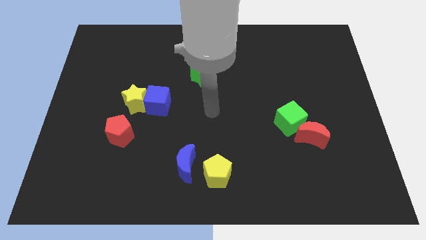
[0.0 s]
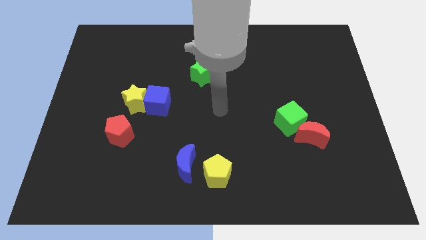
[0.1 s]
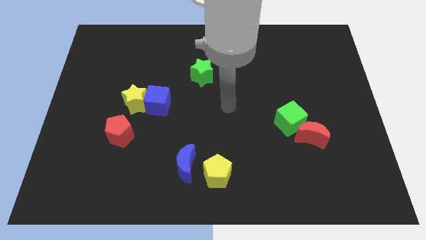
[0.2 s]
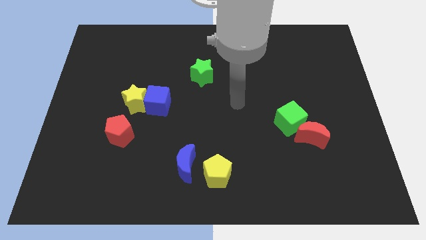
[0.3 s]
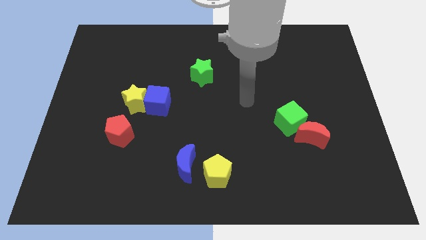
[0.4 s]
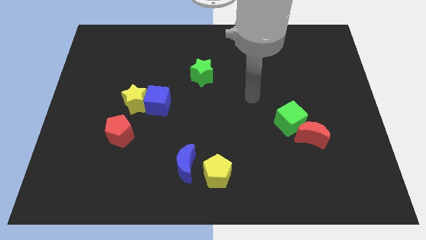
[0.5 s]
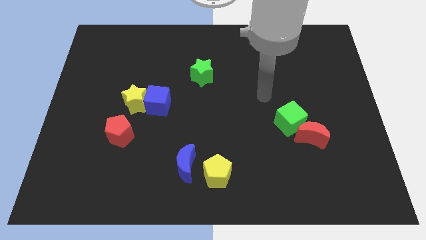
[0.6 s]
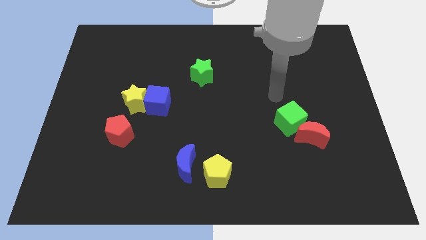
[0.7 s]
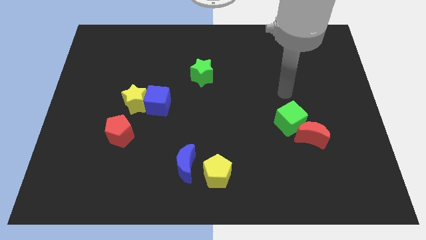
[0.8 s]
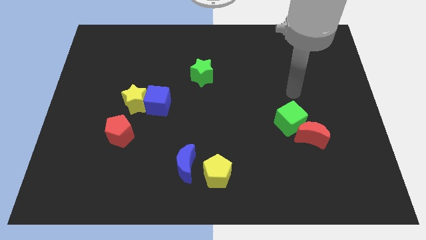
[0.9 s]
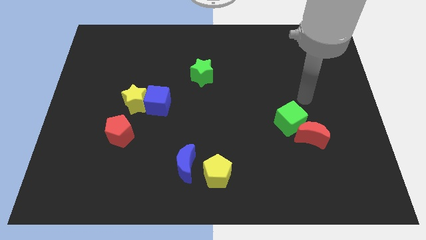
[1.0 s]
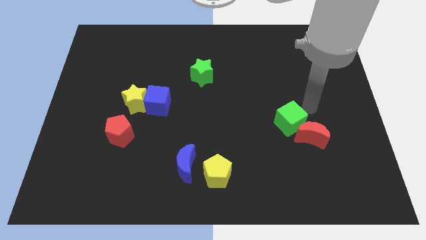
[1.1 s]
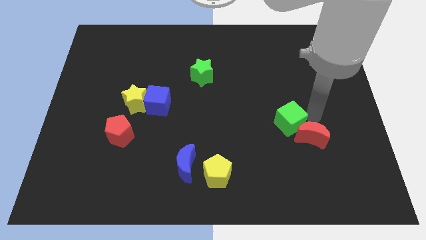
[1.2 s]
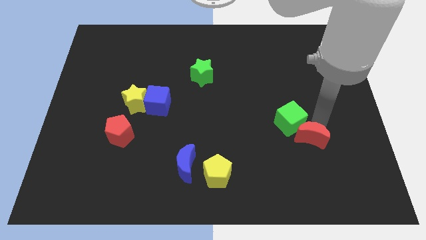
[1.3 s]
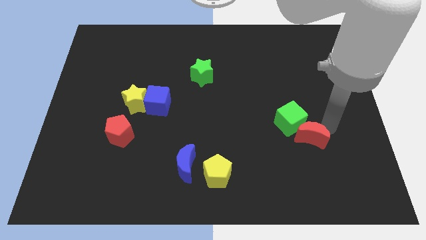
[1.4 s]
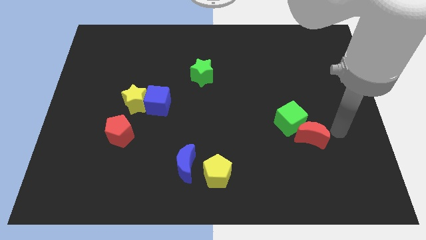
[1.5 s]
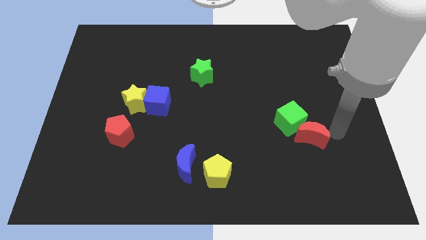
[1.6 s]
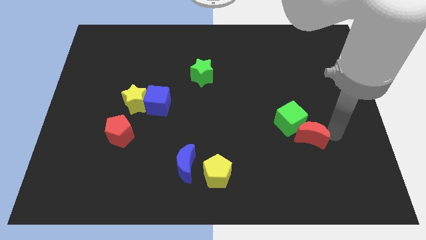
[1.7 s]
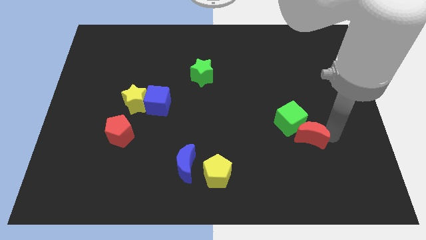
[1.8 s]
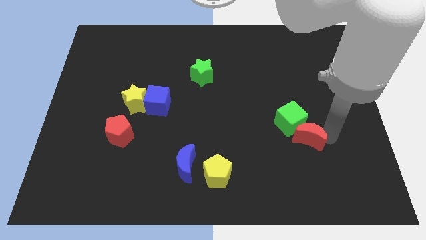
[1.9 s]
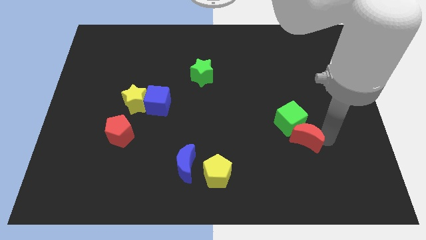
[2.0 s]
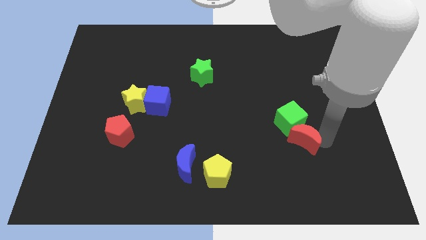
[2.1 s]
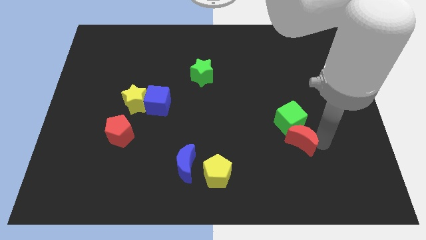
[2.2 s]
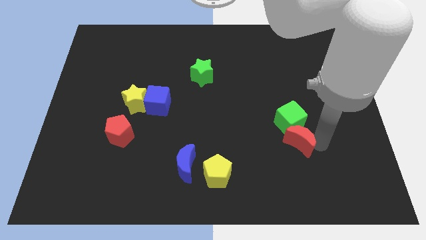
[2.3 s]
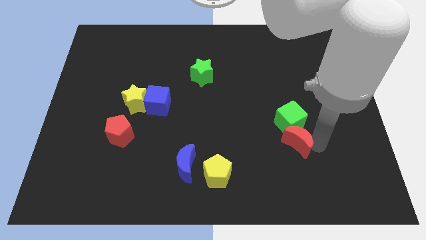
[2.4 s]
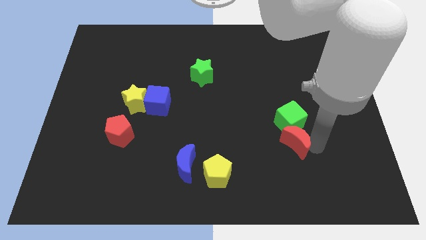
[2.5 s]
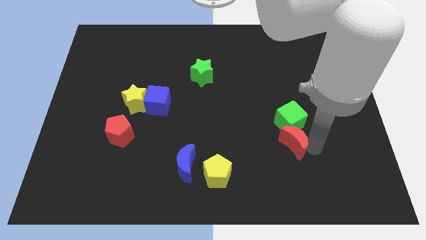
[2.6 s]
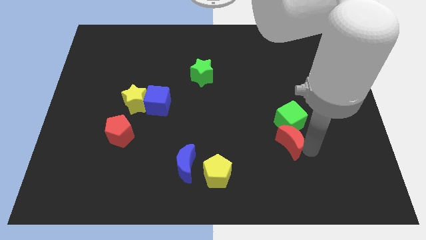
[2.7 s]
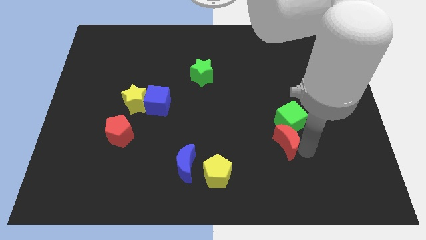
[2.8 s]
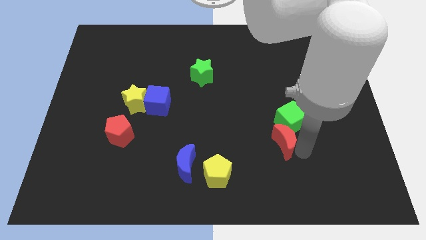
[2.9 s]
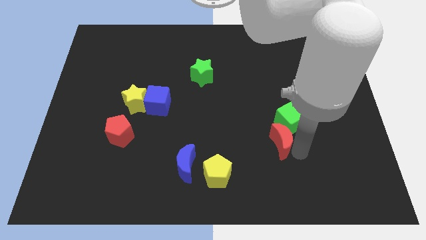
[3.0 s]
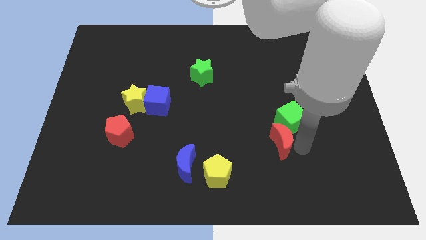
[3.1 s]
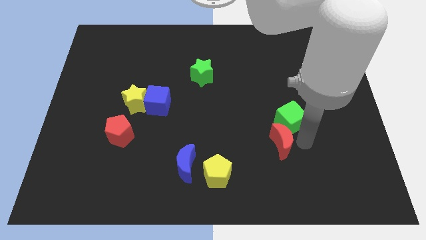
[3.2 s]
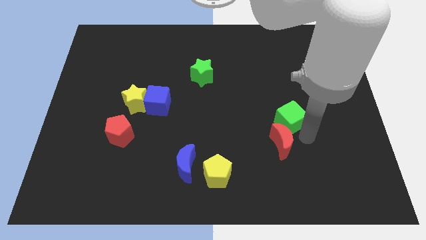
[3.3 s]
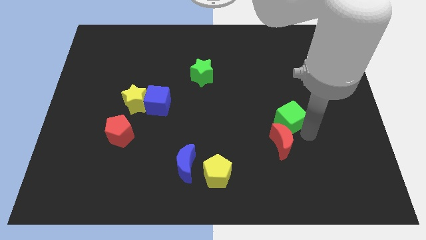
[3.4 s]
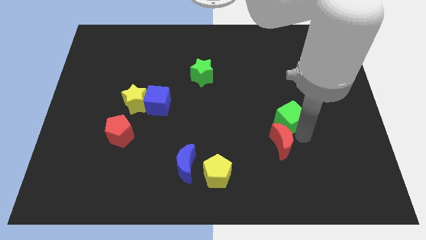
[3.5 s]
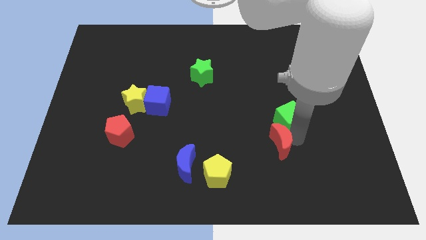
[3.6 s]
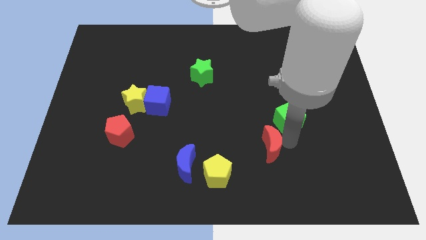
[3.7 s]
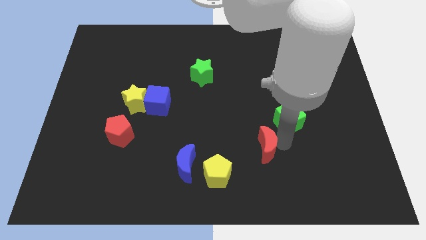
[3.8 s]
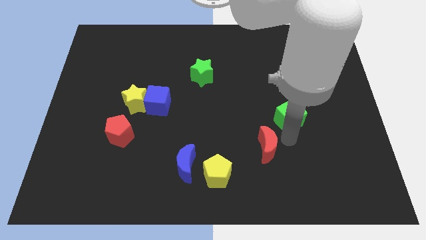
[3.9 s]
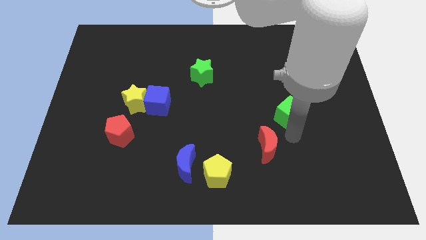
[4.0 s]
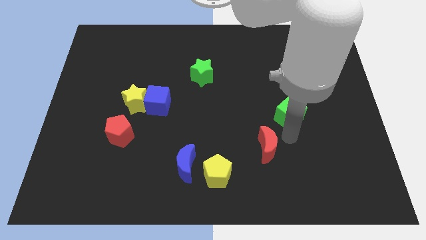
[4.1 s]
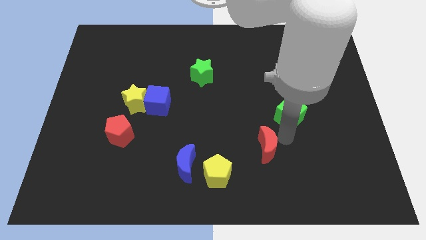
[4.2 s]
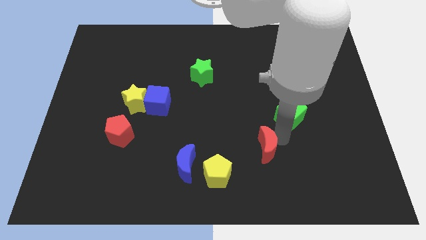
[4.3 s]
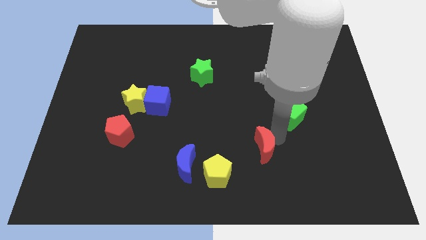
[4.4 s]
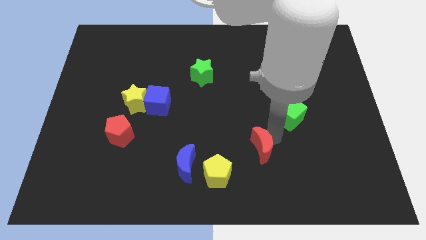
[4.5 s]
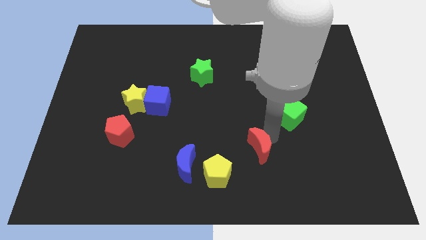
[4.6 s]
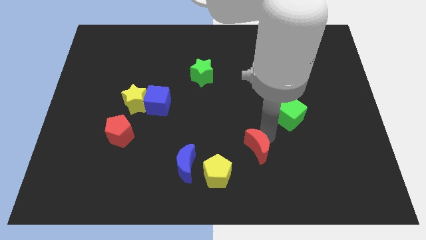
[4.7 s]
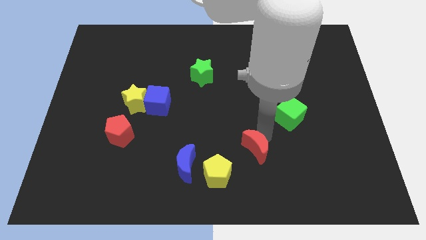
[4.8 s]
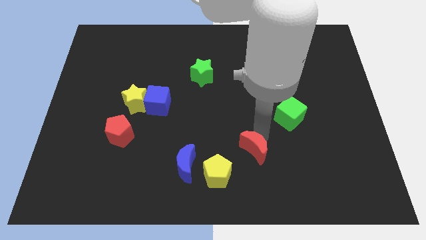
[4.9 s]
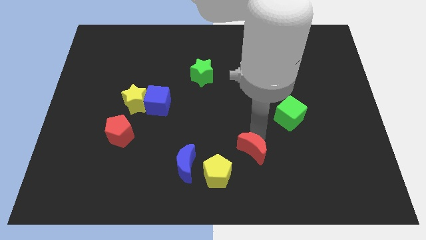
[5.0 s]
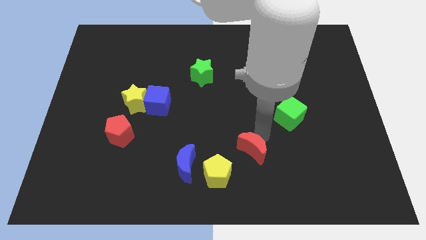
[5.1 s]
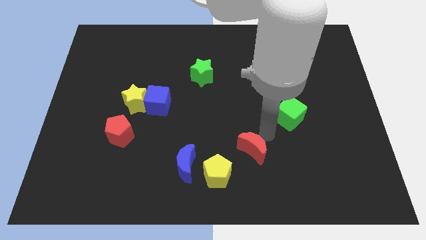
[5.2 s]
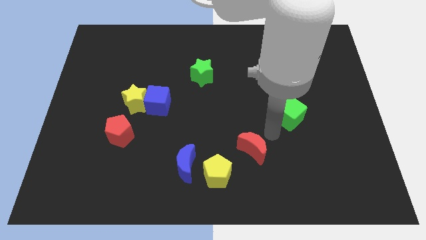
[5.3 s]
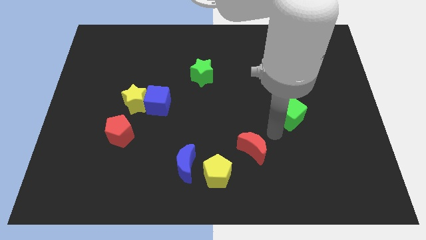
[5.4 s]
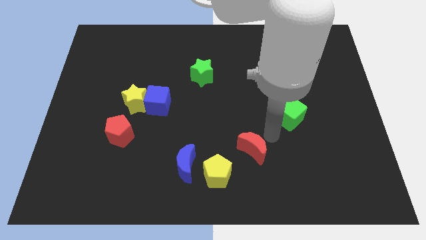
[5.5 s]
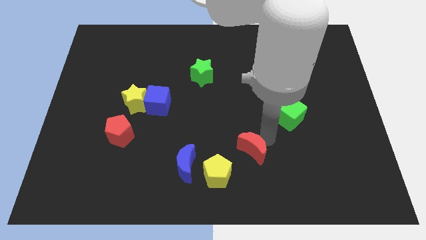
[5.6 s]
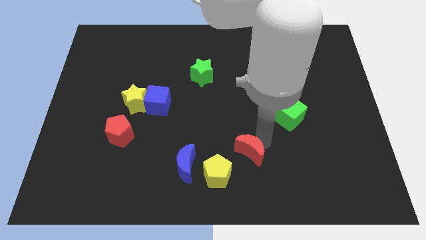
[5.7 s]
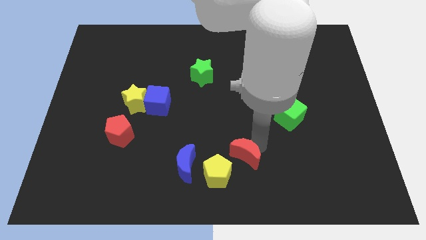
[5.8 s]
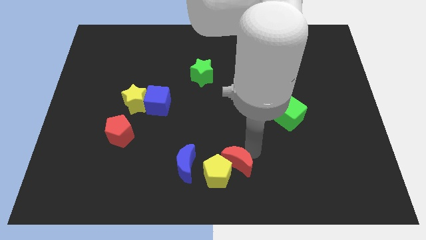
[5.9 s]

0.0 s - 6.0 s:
put the red moon close to the yellow pentagon

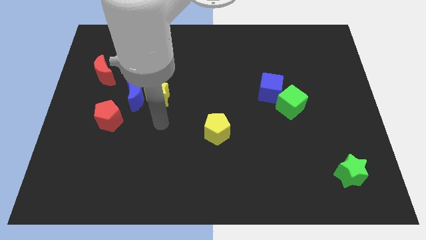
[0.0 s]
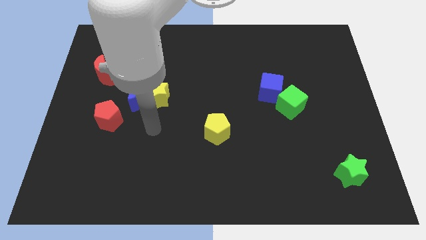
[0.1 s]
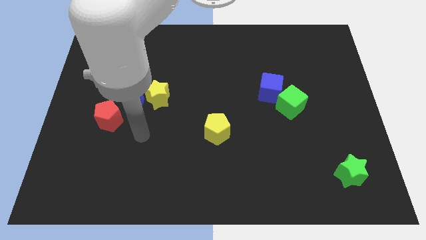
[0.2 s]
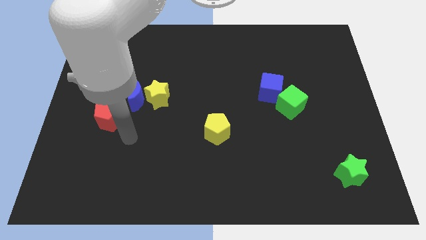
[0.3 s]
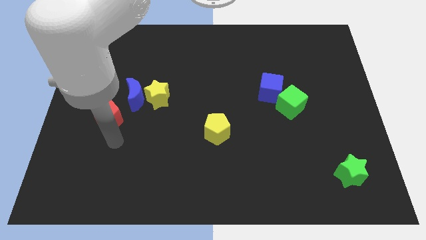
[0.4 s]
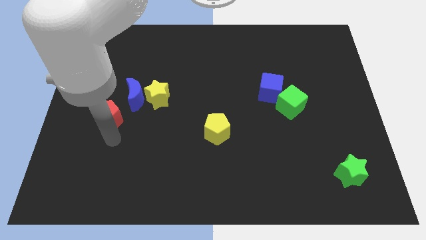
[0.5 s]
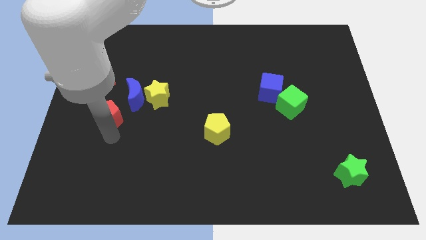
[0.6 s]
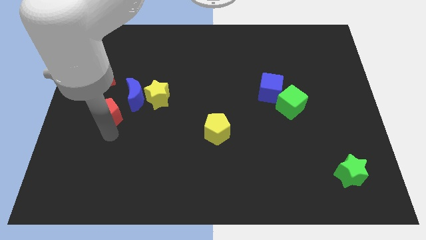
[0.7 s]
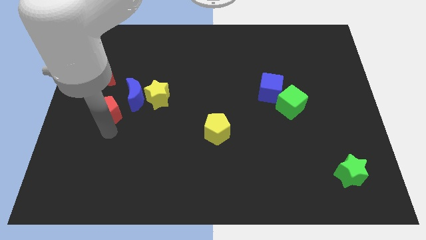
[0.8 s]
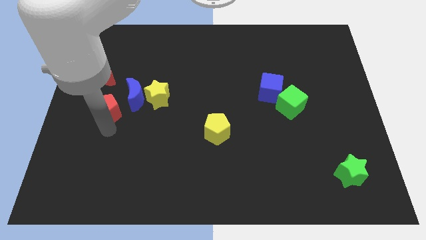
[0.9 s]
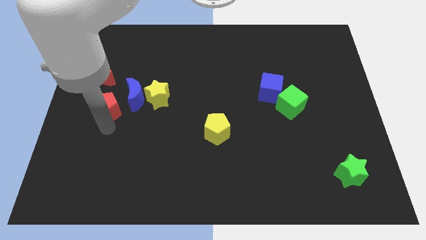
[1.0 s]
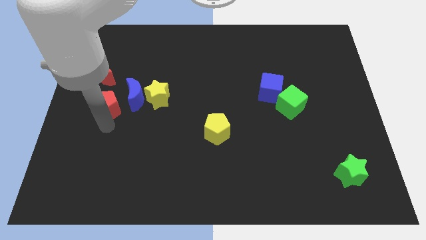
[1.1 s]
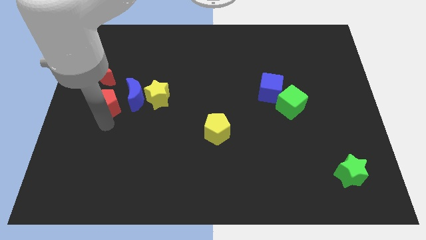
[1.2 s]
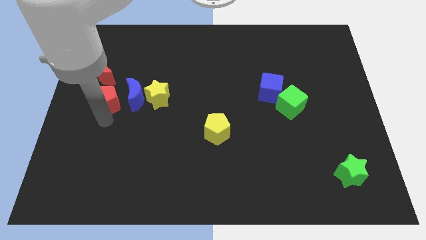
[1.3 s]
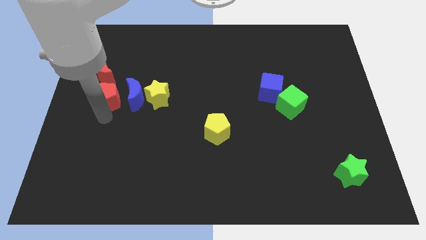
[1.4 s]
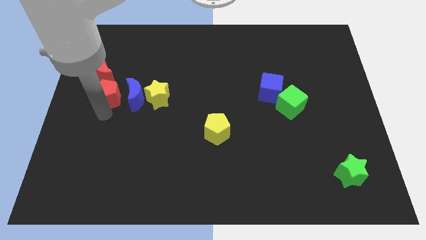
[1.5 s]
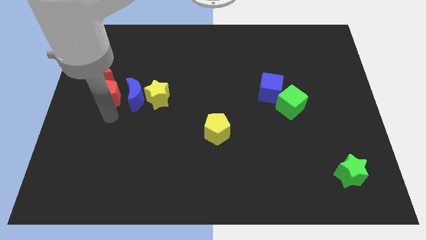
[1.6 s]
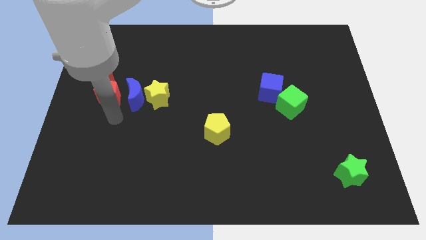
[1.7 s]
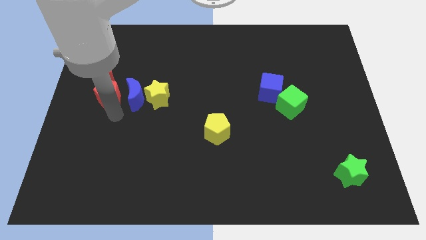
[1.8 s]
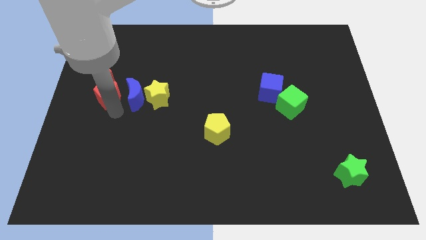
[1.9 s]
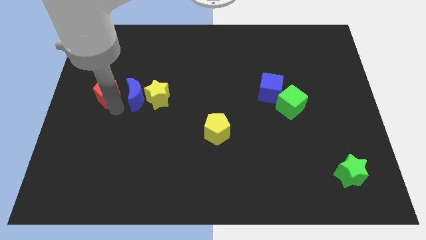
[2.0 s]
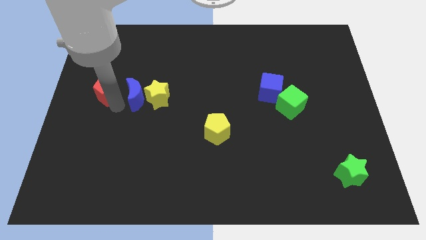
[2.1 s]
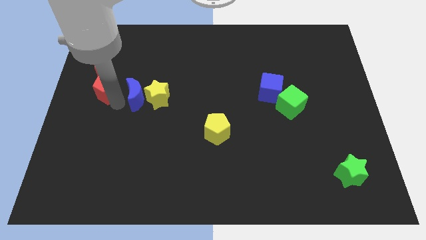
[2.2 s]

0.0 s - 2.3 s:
put the red pentagon next to the red moon
